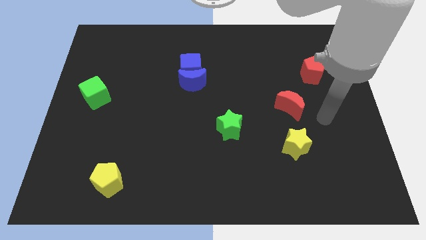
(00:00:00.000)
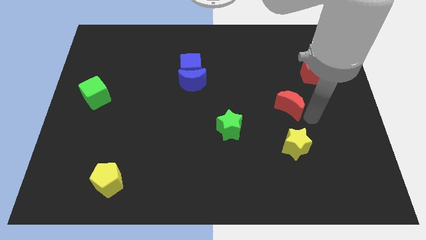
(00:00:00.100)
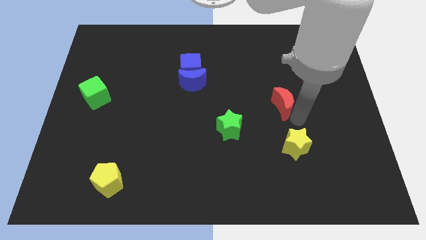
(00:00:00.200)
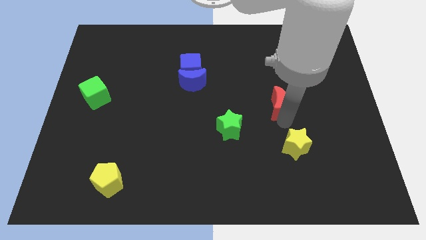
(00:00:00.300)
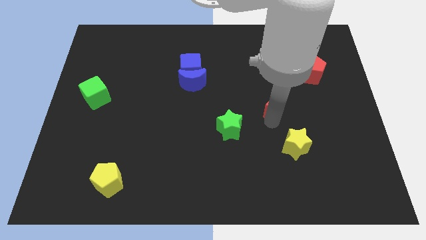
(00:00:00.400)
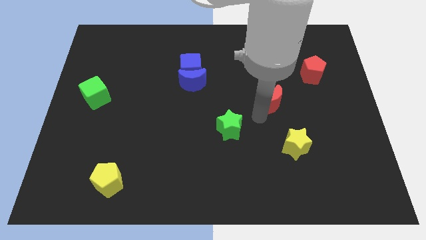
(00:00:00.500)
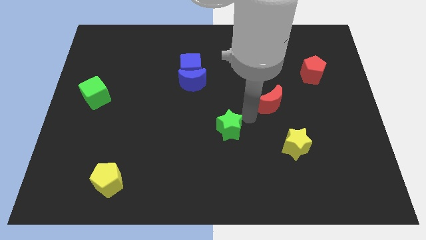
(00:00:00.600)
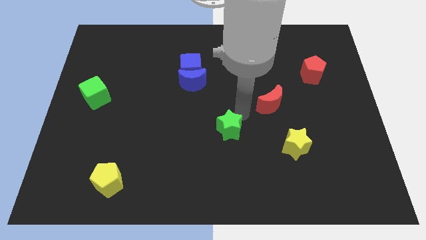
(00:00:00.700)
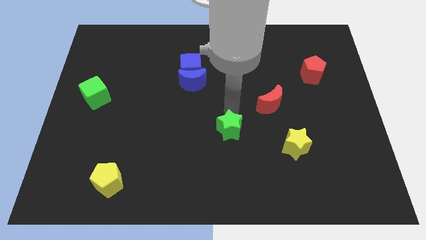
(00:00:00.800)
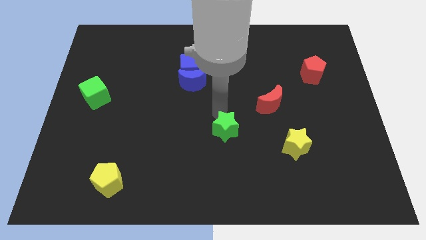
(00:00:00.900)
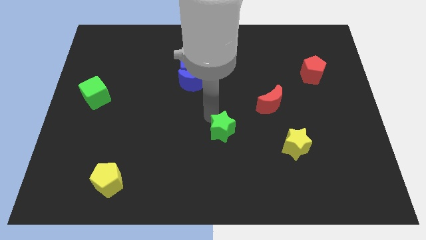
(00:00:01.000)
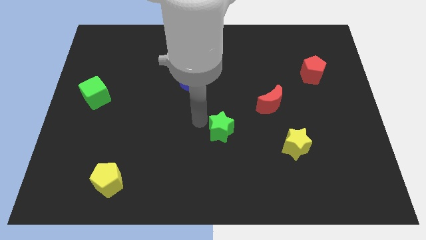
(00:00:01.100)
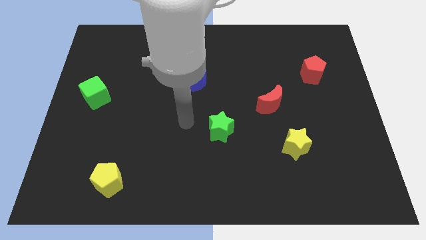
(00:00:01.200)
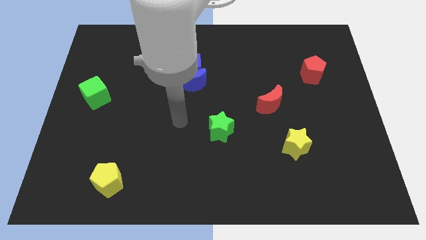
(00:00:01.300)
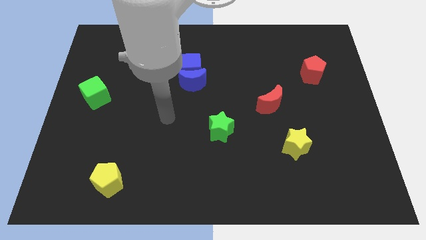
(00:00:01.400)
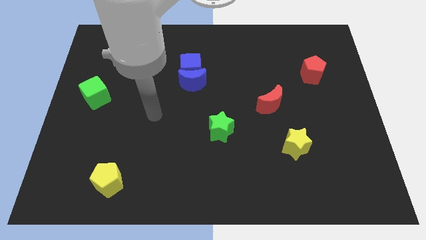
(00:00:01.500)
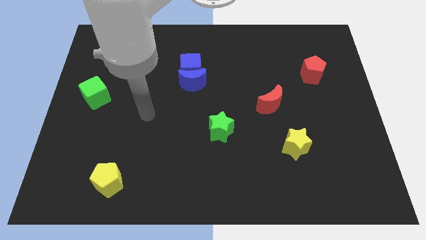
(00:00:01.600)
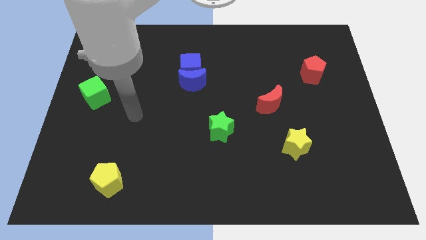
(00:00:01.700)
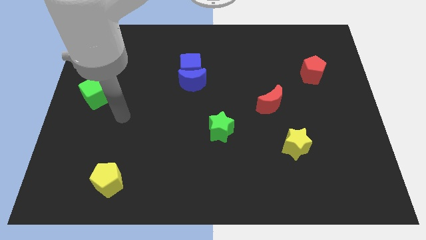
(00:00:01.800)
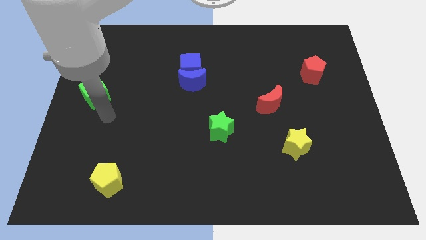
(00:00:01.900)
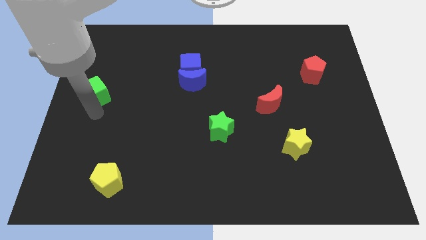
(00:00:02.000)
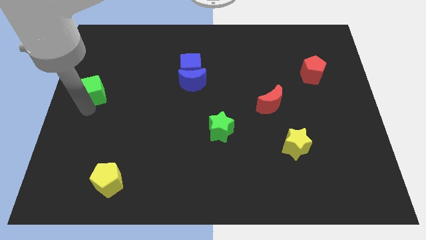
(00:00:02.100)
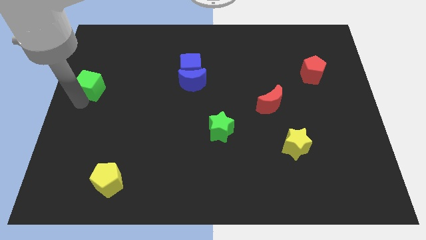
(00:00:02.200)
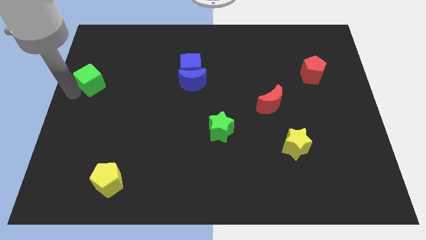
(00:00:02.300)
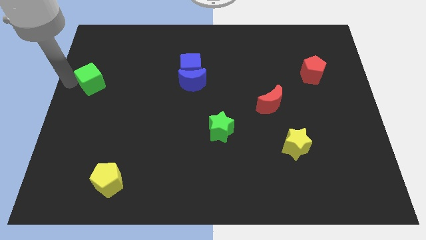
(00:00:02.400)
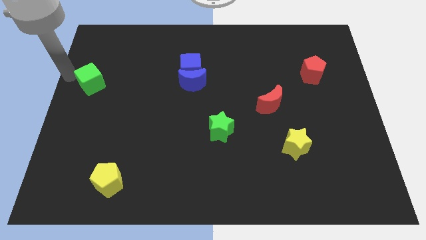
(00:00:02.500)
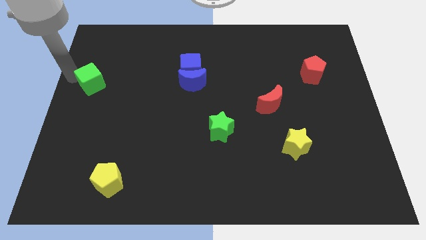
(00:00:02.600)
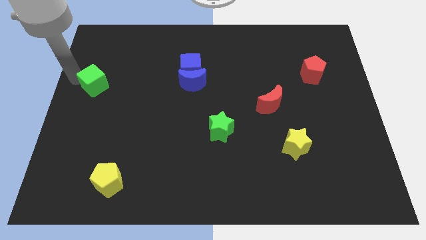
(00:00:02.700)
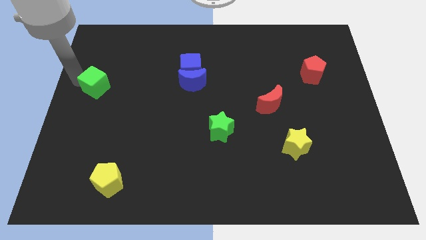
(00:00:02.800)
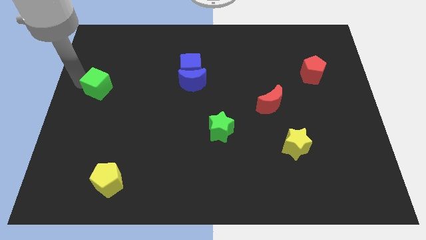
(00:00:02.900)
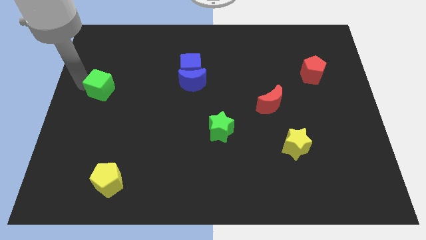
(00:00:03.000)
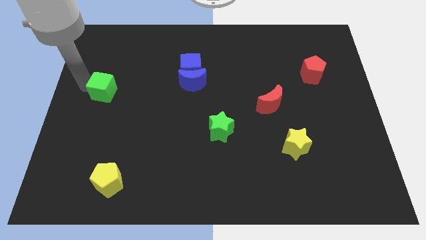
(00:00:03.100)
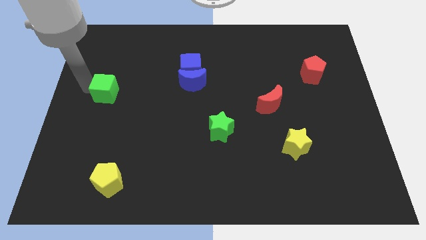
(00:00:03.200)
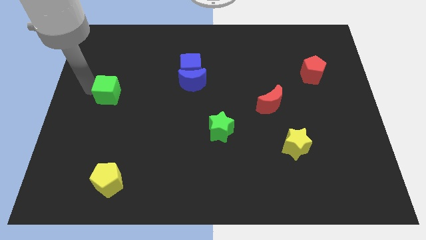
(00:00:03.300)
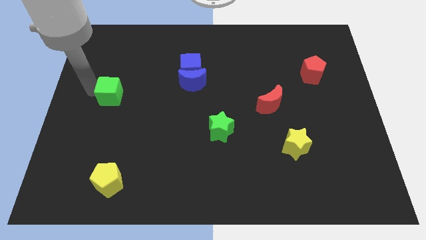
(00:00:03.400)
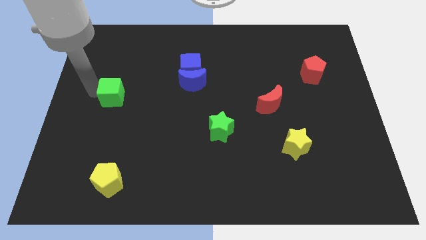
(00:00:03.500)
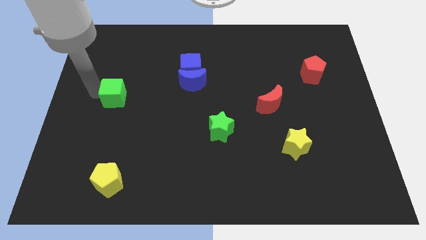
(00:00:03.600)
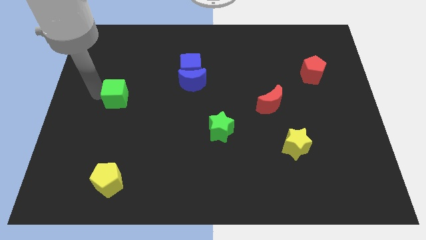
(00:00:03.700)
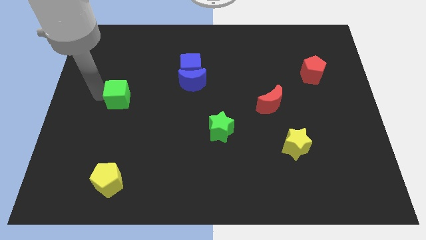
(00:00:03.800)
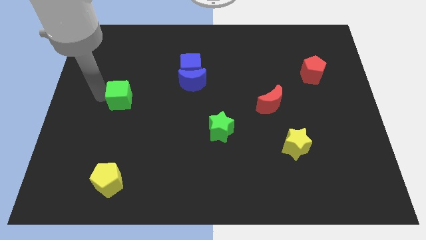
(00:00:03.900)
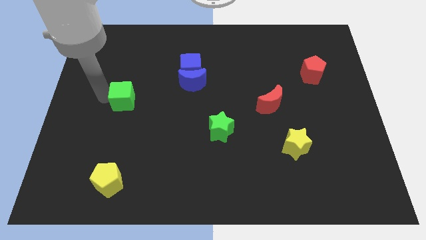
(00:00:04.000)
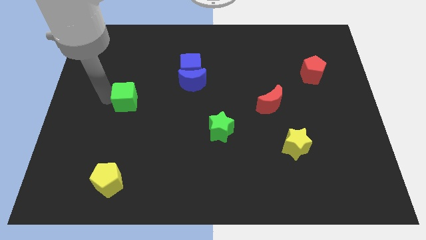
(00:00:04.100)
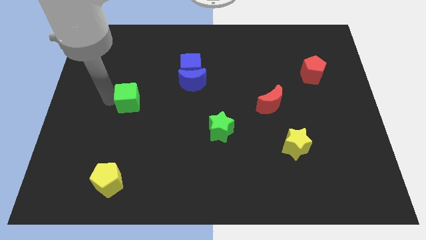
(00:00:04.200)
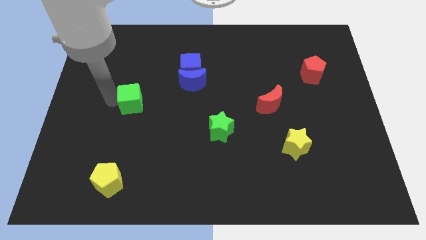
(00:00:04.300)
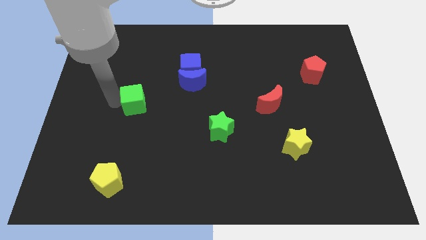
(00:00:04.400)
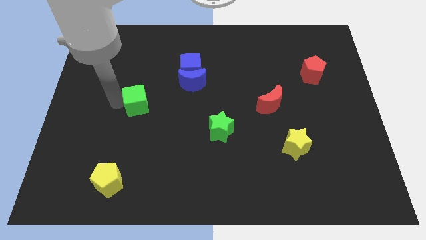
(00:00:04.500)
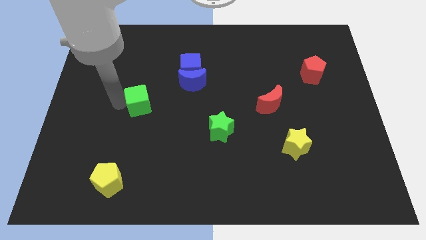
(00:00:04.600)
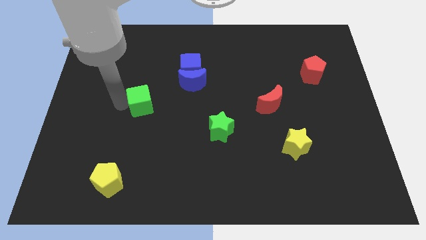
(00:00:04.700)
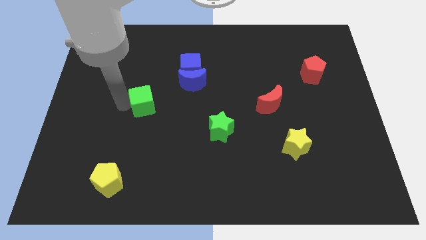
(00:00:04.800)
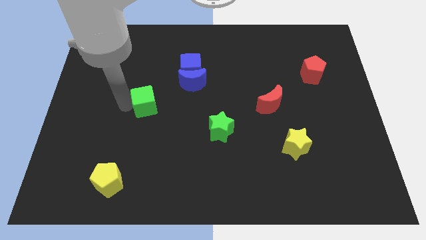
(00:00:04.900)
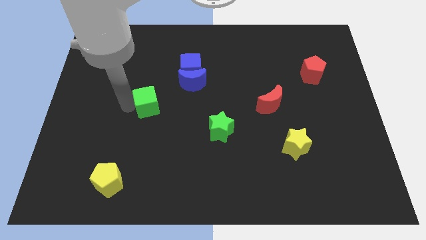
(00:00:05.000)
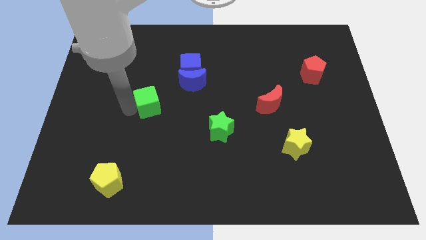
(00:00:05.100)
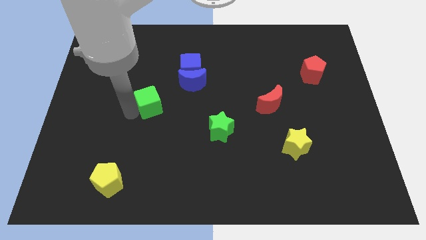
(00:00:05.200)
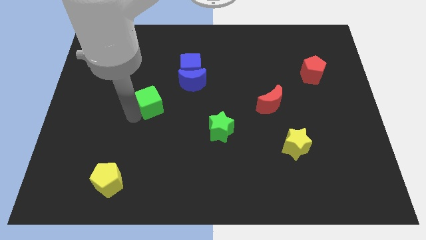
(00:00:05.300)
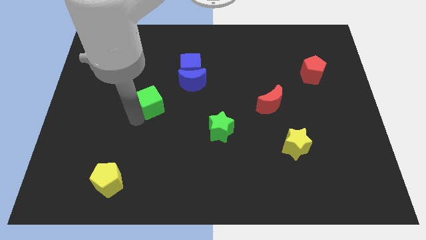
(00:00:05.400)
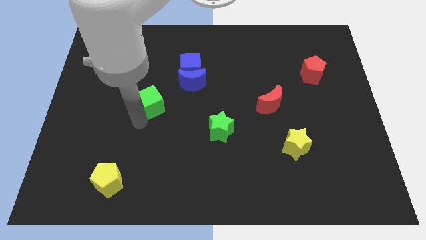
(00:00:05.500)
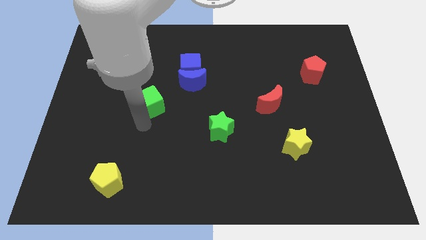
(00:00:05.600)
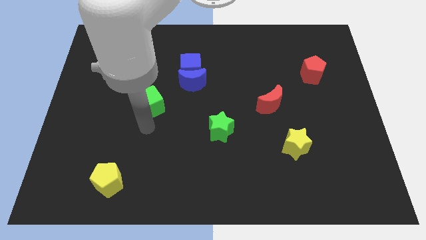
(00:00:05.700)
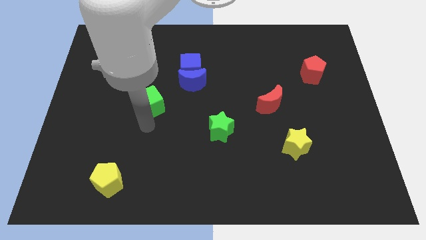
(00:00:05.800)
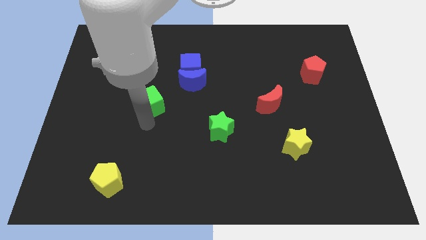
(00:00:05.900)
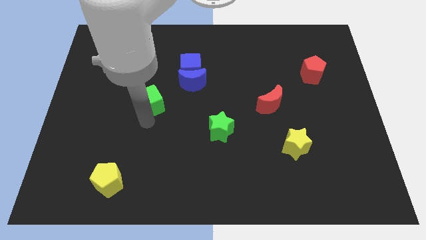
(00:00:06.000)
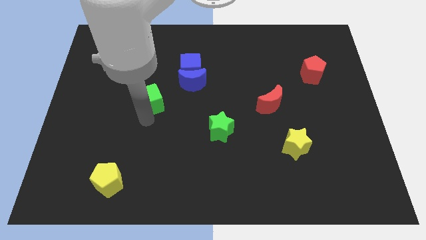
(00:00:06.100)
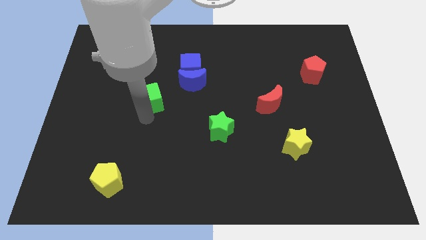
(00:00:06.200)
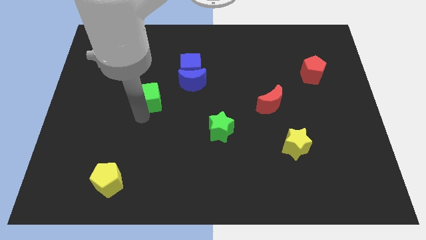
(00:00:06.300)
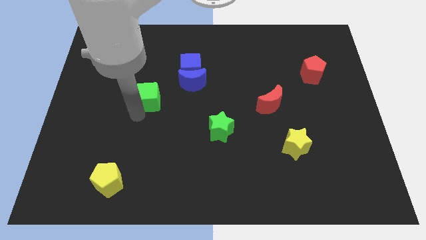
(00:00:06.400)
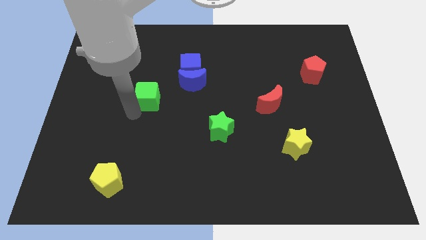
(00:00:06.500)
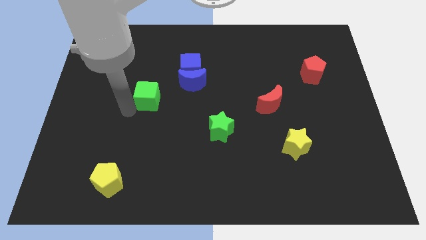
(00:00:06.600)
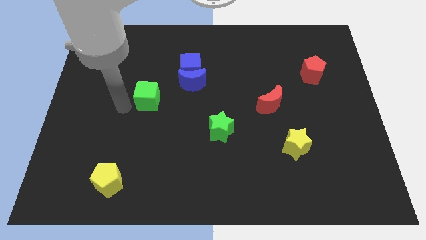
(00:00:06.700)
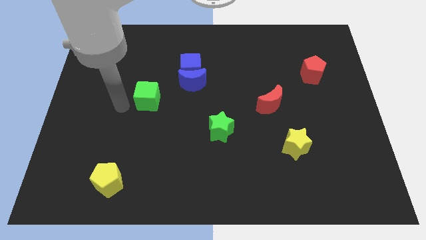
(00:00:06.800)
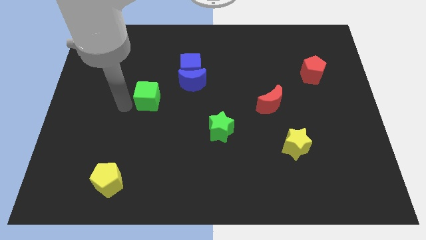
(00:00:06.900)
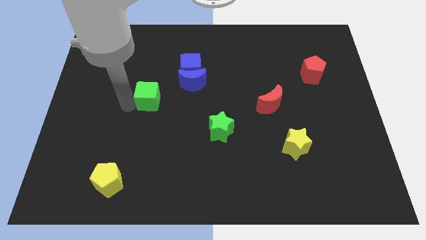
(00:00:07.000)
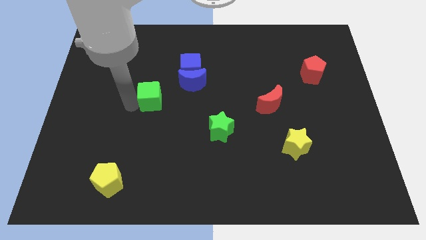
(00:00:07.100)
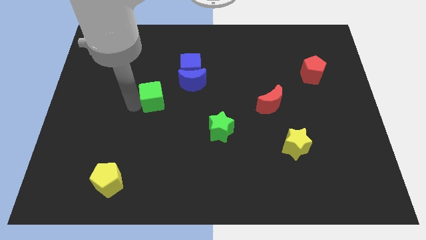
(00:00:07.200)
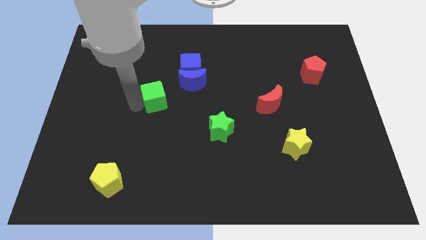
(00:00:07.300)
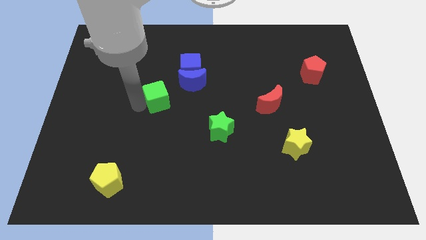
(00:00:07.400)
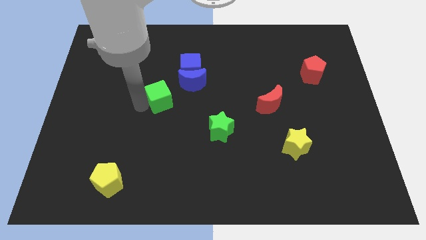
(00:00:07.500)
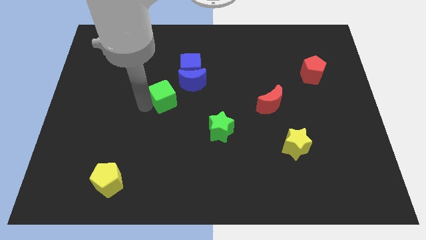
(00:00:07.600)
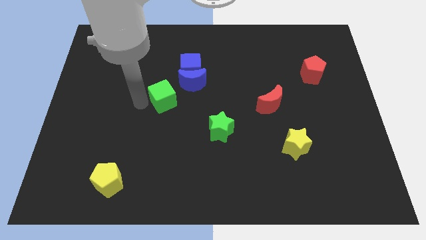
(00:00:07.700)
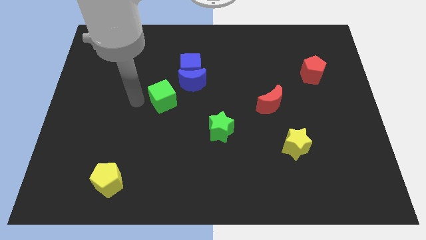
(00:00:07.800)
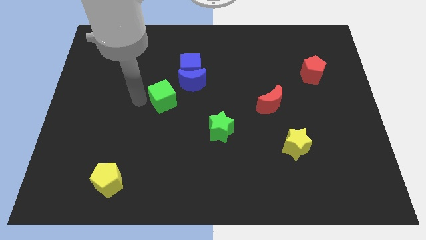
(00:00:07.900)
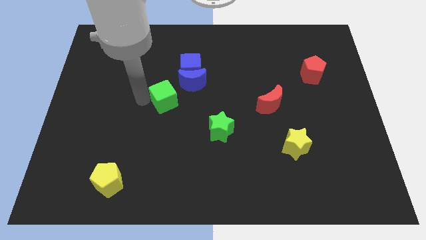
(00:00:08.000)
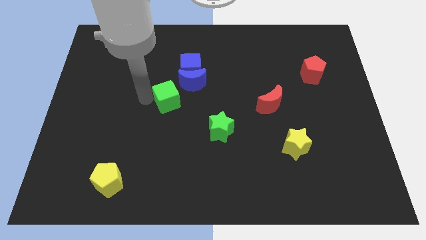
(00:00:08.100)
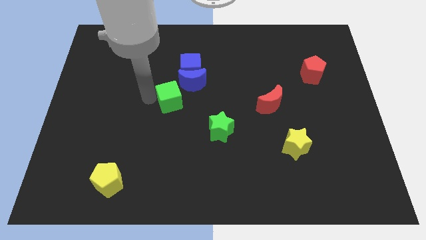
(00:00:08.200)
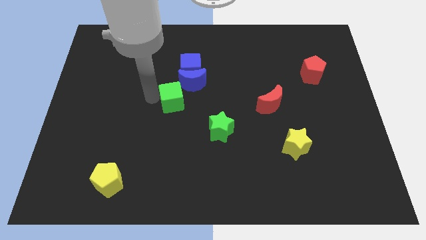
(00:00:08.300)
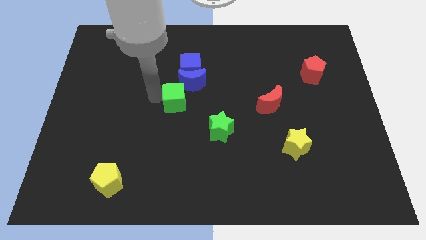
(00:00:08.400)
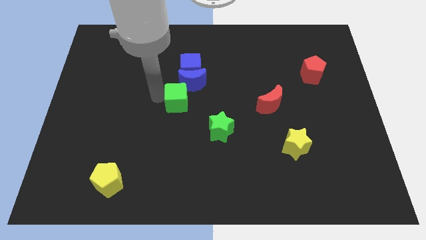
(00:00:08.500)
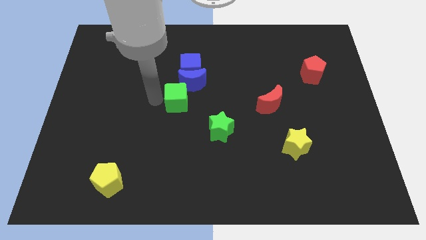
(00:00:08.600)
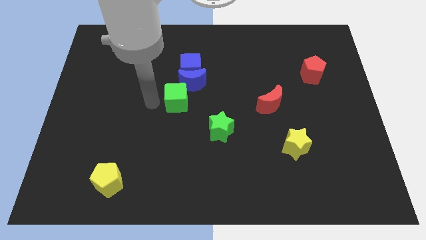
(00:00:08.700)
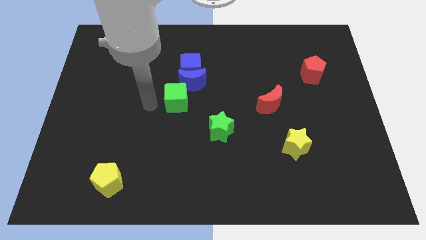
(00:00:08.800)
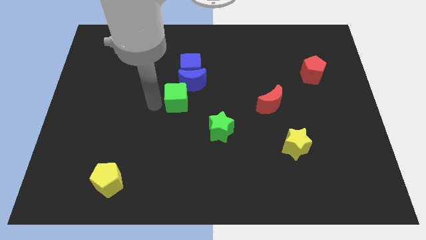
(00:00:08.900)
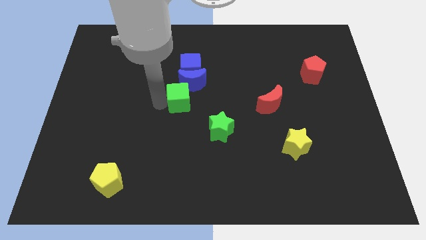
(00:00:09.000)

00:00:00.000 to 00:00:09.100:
move the green cube to the right
